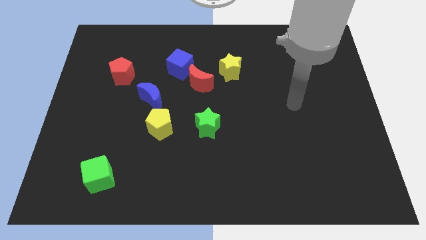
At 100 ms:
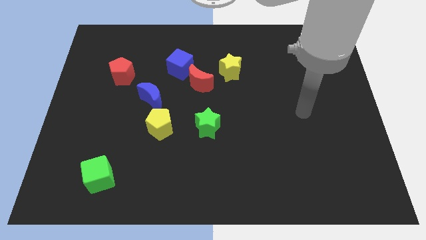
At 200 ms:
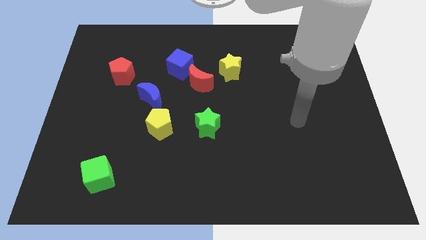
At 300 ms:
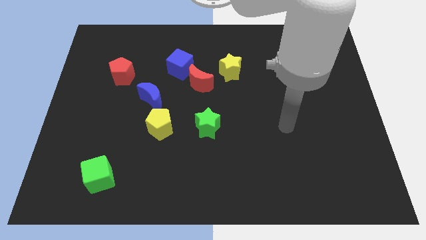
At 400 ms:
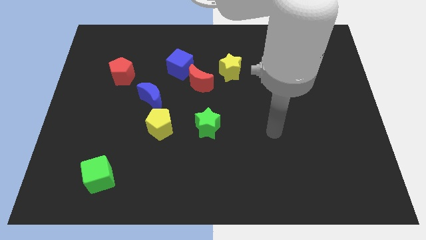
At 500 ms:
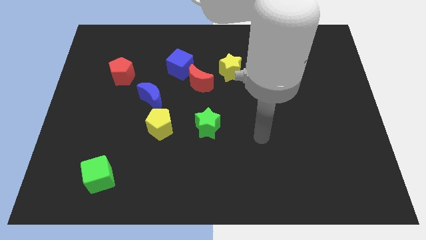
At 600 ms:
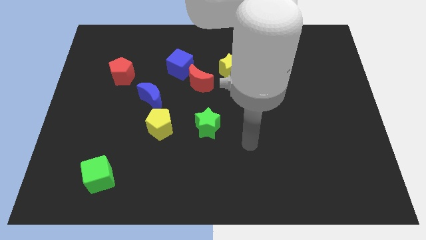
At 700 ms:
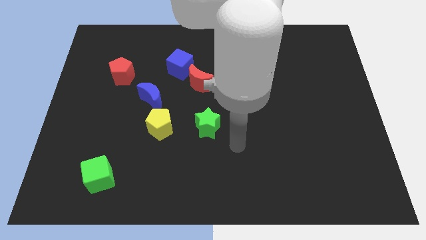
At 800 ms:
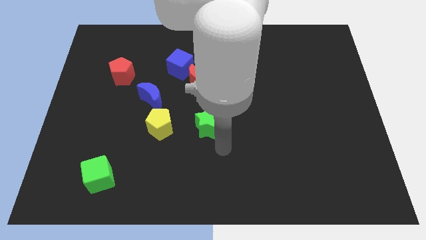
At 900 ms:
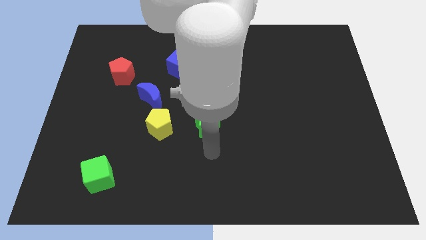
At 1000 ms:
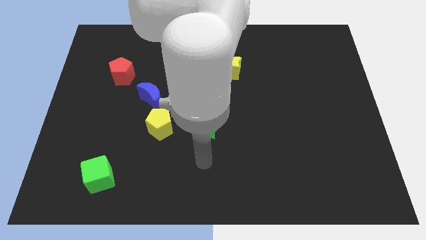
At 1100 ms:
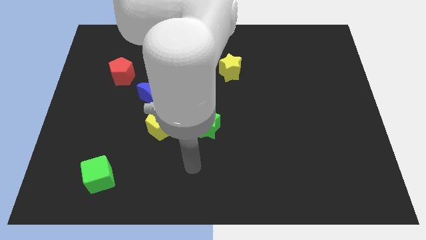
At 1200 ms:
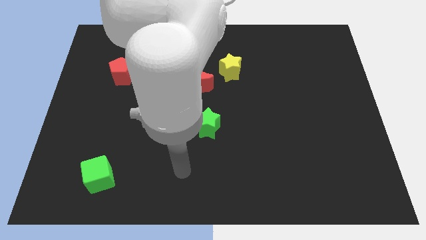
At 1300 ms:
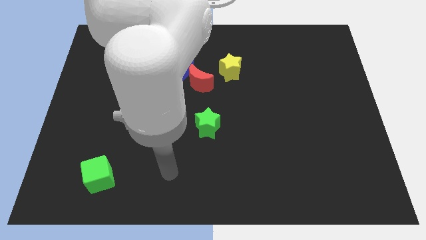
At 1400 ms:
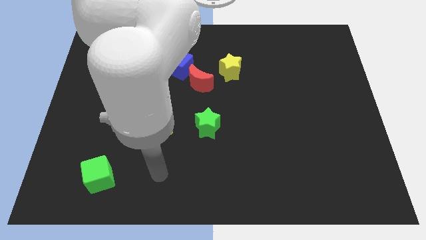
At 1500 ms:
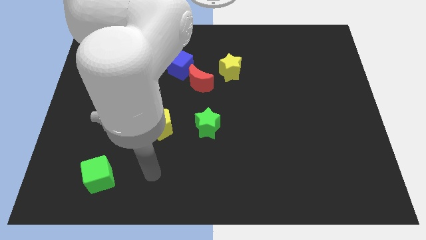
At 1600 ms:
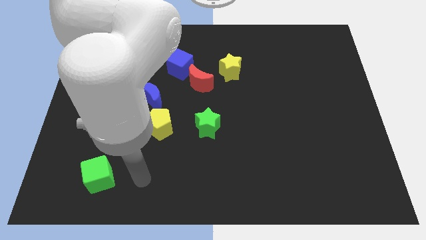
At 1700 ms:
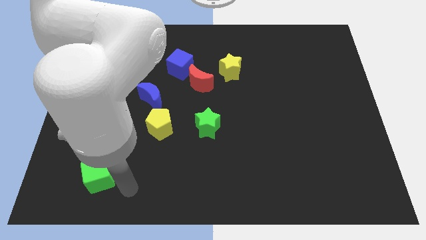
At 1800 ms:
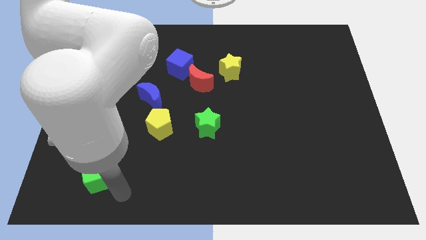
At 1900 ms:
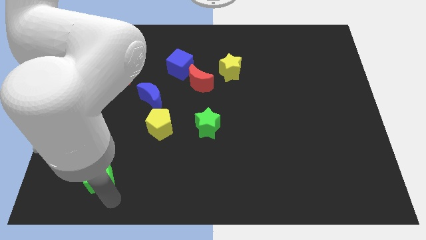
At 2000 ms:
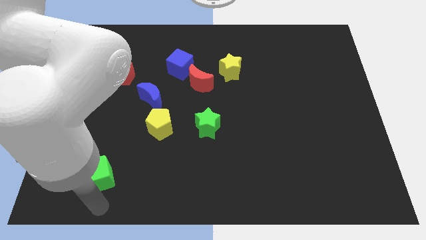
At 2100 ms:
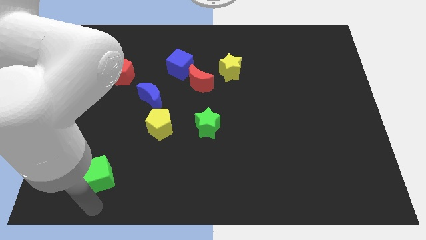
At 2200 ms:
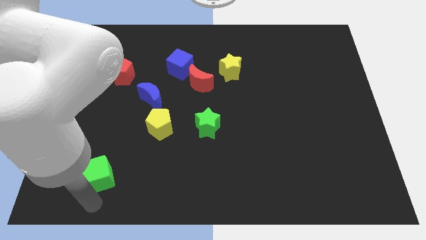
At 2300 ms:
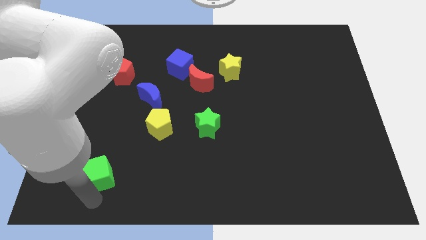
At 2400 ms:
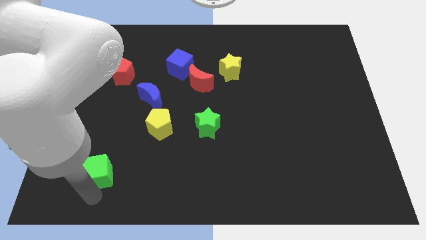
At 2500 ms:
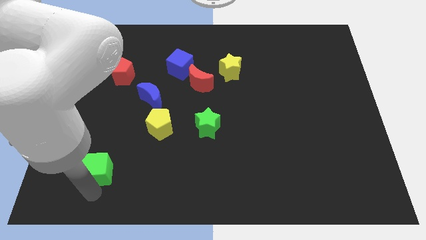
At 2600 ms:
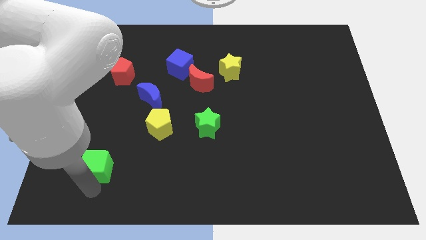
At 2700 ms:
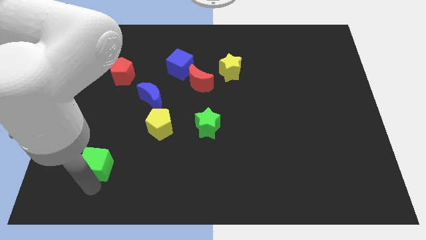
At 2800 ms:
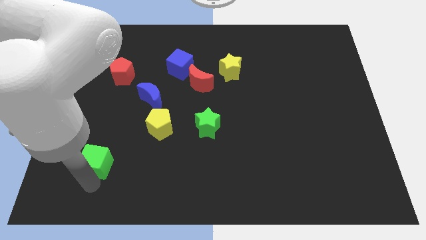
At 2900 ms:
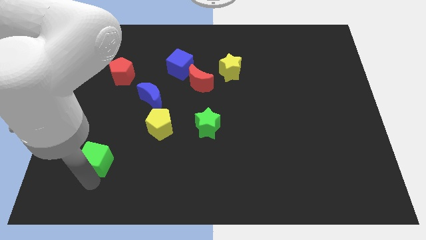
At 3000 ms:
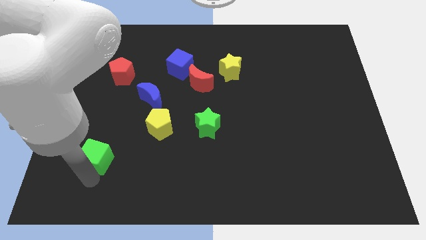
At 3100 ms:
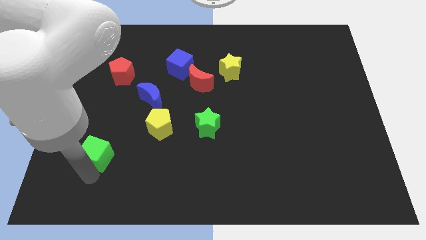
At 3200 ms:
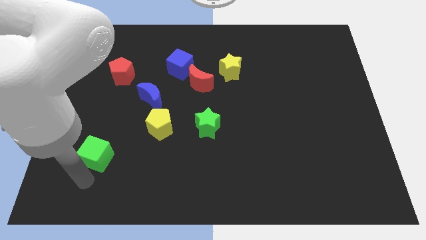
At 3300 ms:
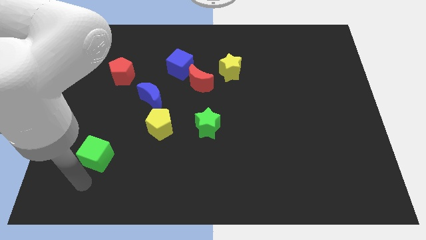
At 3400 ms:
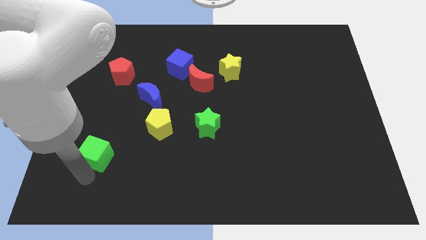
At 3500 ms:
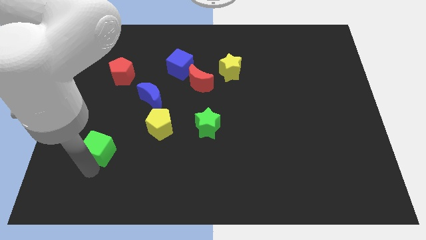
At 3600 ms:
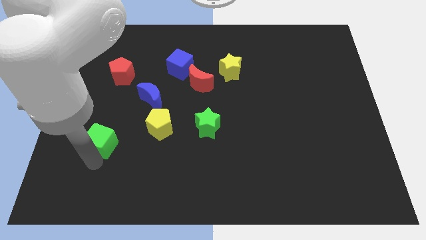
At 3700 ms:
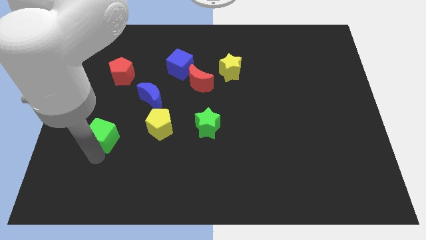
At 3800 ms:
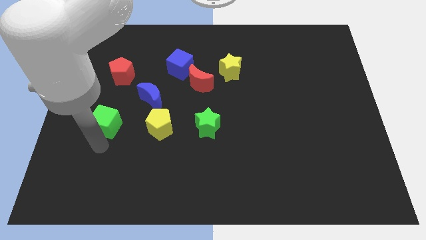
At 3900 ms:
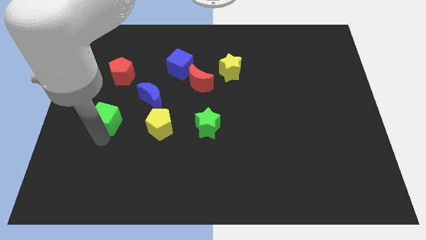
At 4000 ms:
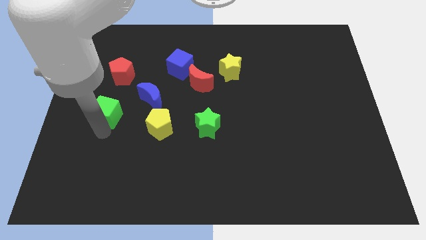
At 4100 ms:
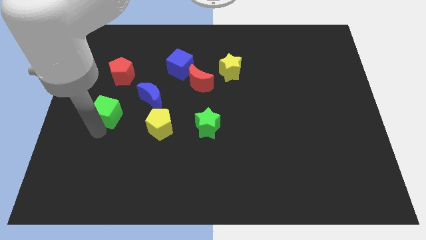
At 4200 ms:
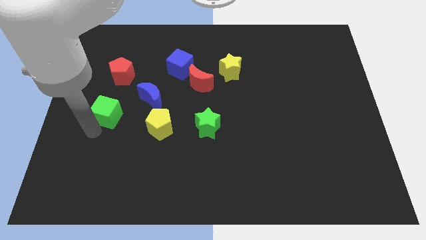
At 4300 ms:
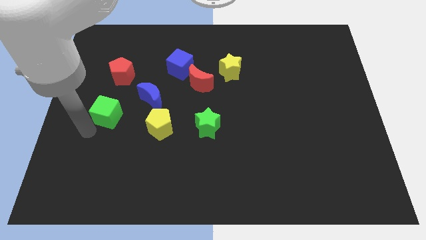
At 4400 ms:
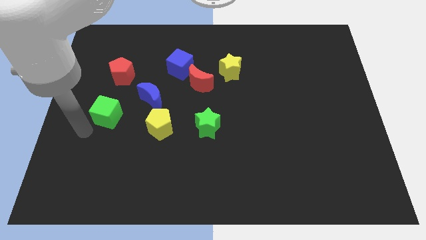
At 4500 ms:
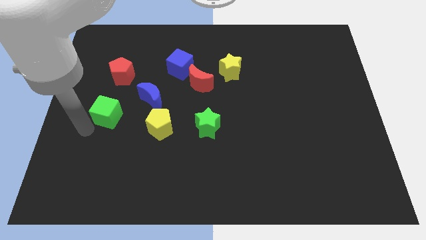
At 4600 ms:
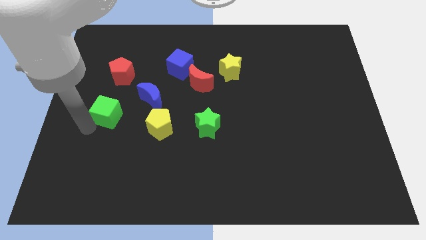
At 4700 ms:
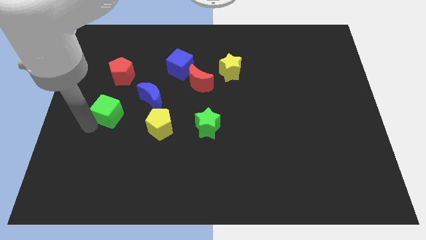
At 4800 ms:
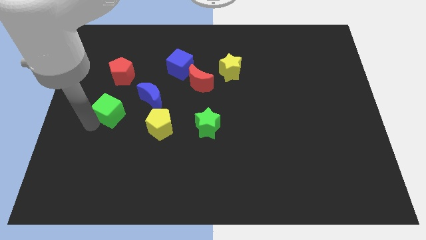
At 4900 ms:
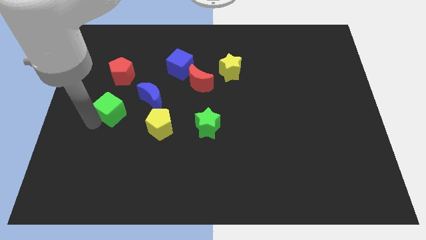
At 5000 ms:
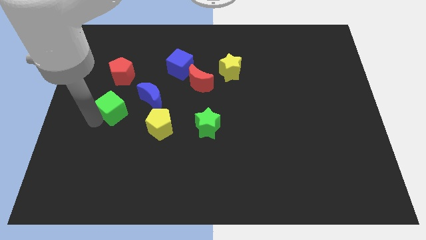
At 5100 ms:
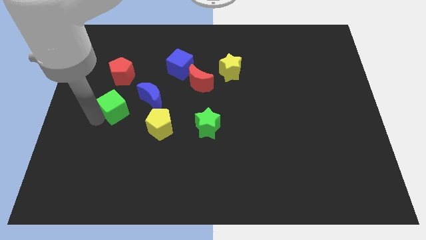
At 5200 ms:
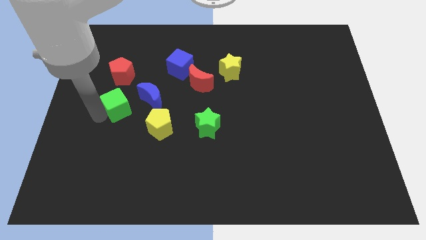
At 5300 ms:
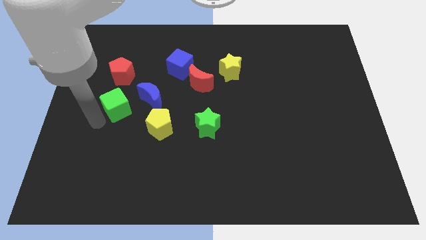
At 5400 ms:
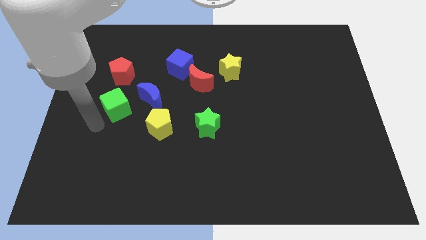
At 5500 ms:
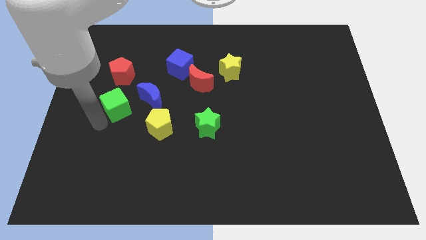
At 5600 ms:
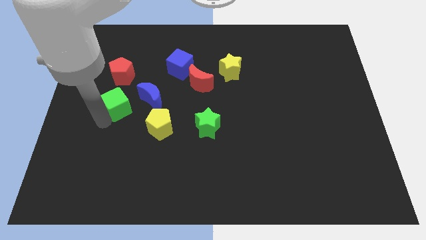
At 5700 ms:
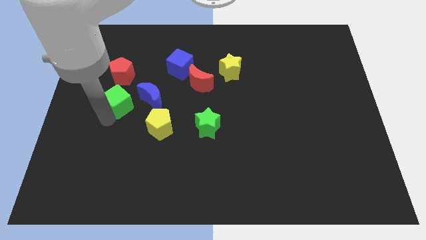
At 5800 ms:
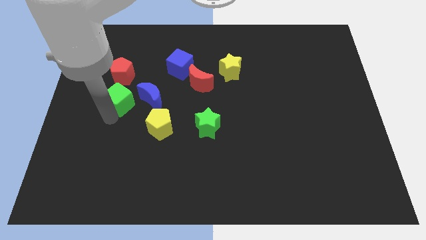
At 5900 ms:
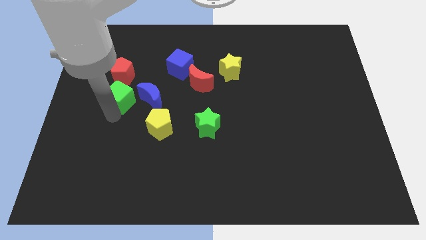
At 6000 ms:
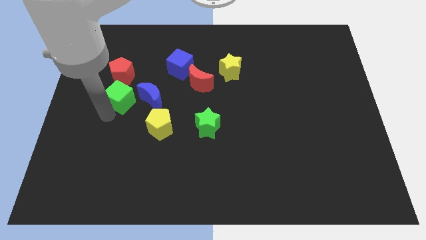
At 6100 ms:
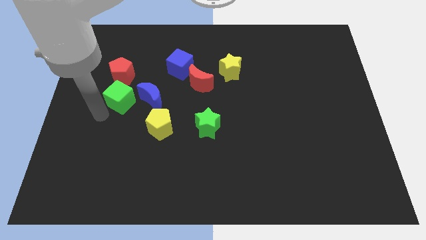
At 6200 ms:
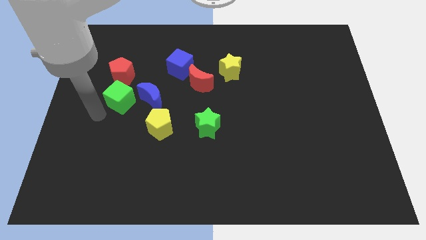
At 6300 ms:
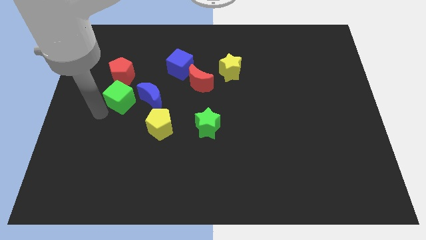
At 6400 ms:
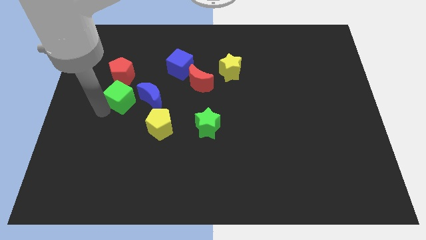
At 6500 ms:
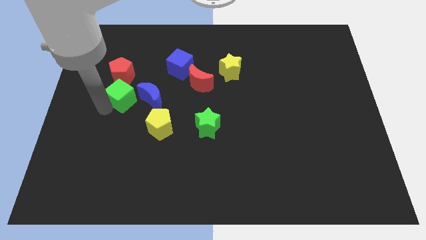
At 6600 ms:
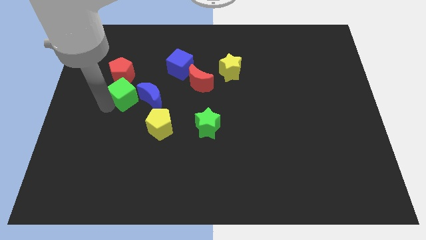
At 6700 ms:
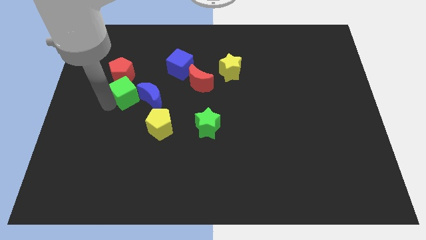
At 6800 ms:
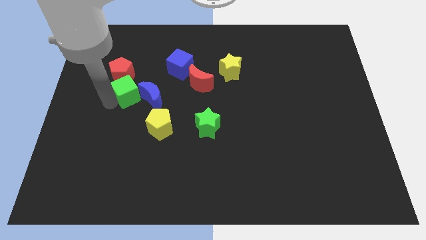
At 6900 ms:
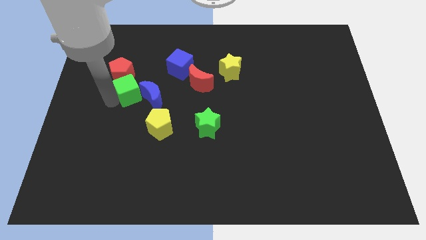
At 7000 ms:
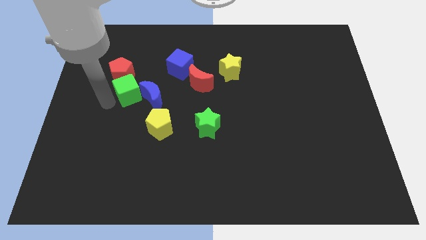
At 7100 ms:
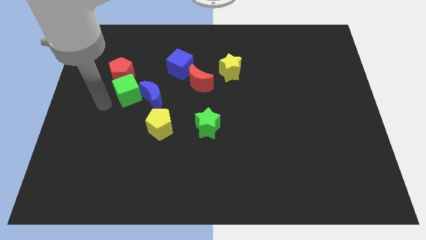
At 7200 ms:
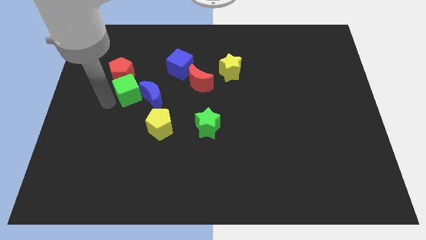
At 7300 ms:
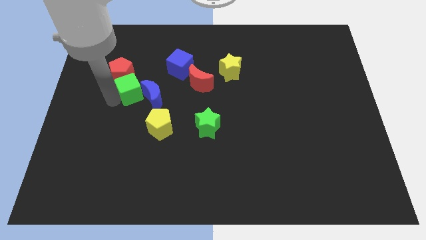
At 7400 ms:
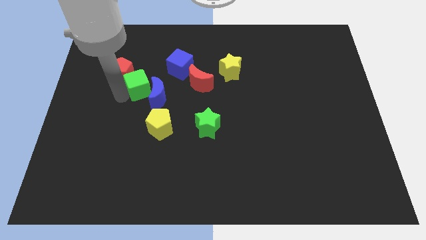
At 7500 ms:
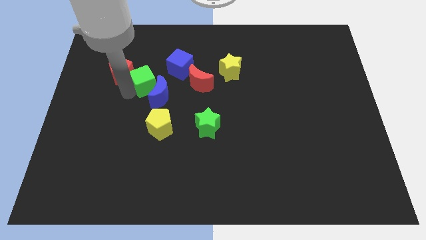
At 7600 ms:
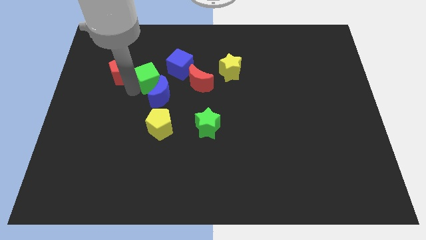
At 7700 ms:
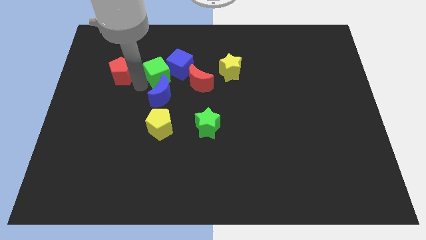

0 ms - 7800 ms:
push the green cube next to the blue cube

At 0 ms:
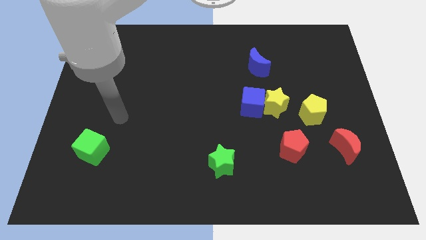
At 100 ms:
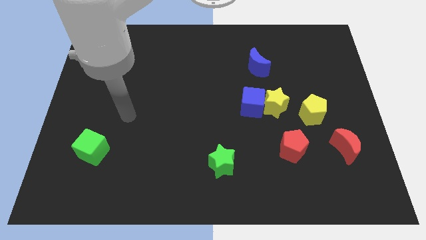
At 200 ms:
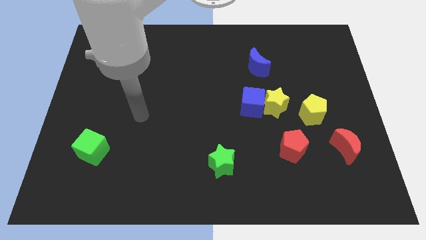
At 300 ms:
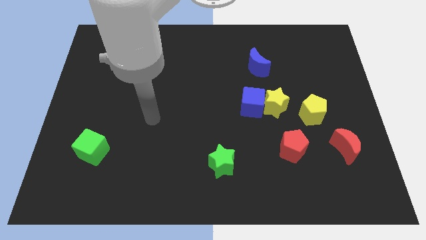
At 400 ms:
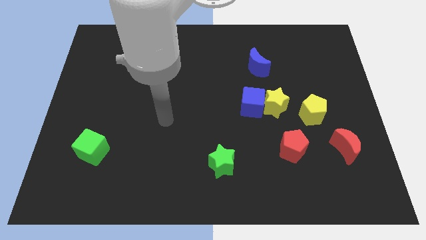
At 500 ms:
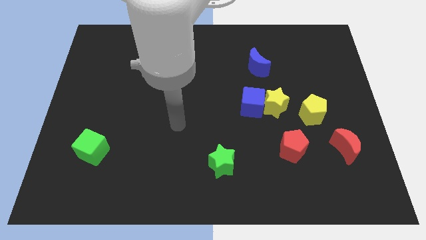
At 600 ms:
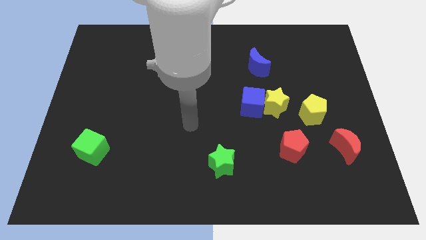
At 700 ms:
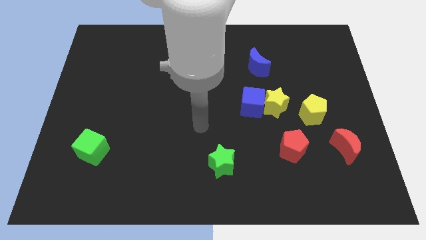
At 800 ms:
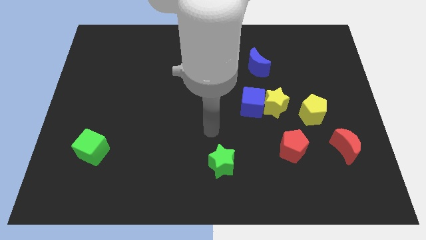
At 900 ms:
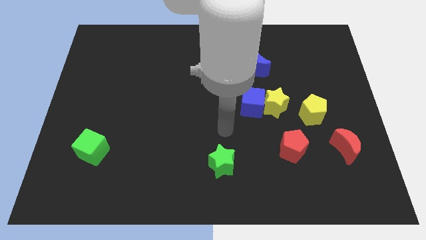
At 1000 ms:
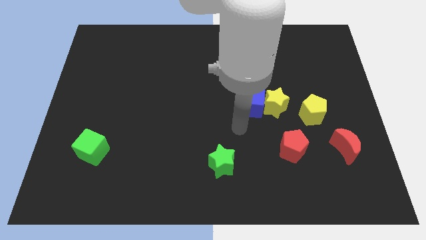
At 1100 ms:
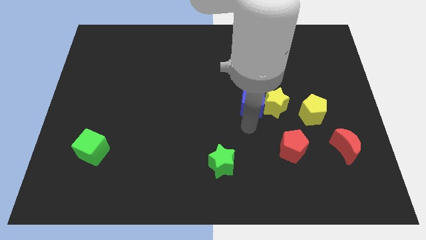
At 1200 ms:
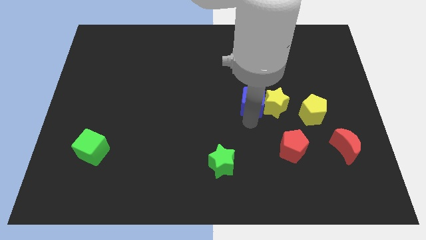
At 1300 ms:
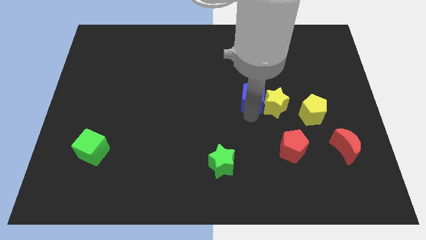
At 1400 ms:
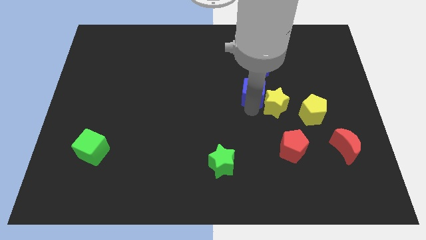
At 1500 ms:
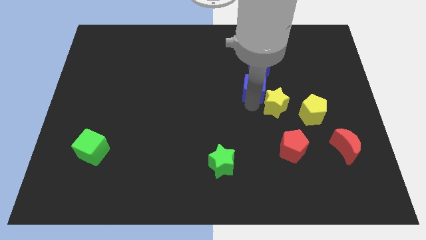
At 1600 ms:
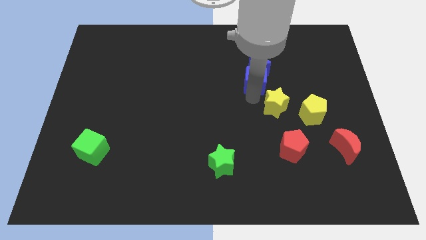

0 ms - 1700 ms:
push the blue cube next to the blue moon
